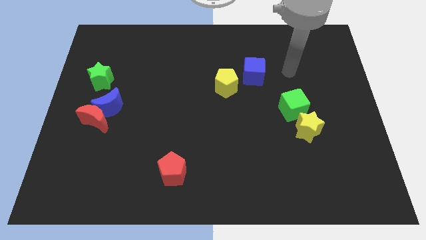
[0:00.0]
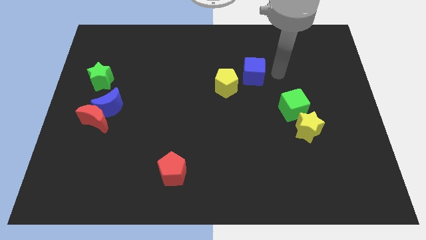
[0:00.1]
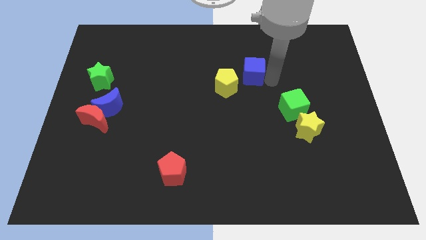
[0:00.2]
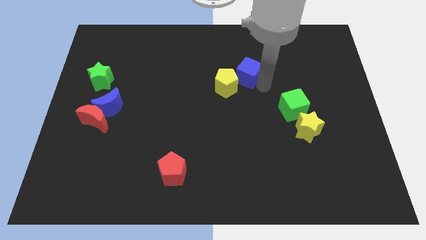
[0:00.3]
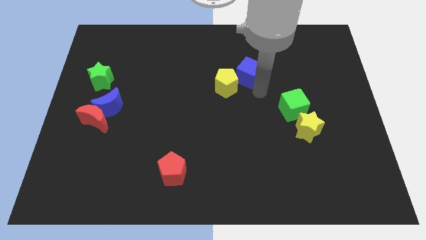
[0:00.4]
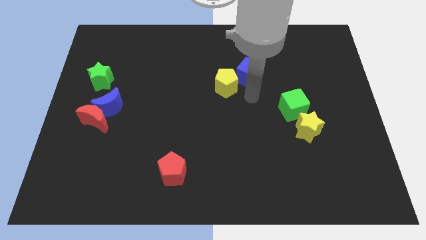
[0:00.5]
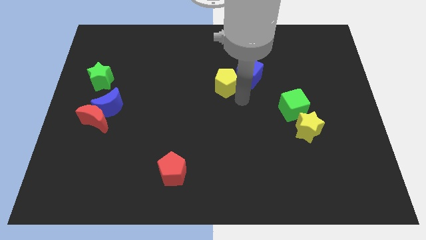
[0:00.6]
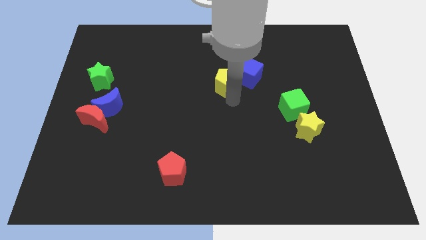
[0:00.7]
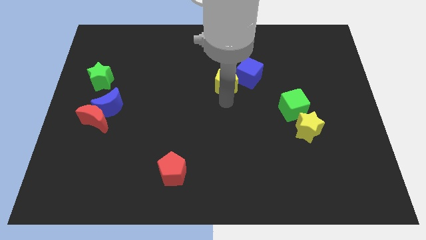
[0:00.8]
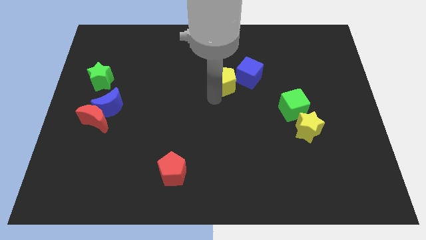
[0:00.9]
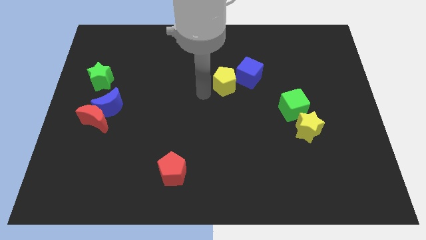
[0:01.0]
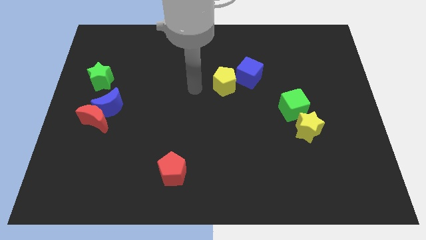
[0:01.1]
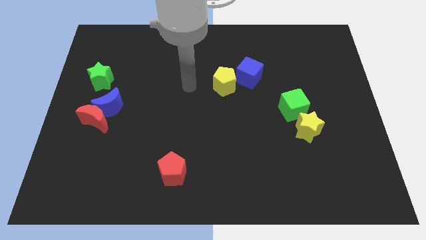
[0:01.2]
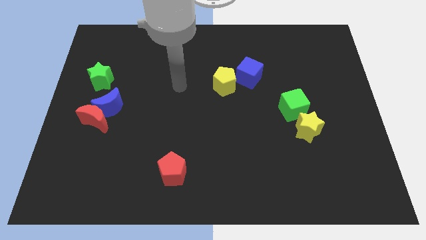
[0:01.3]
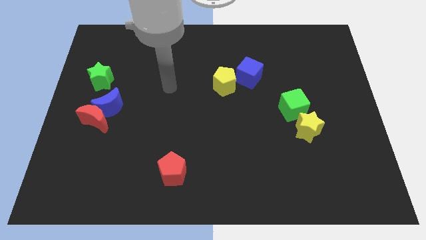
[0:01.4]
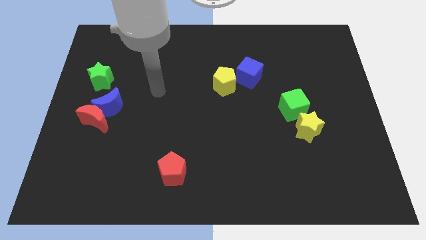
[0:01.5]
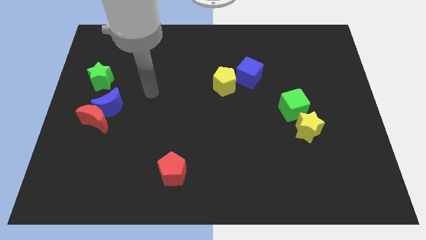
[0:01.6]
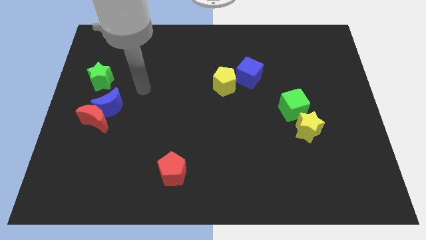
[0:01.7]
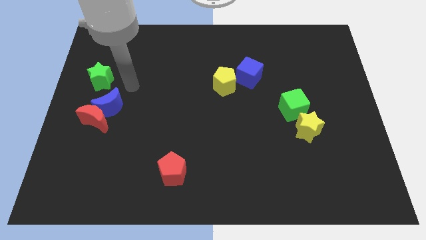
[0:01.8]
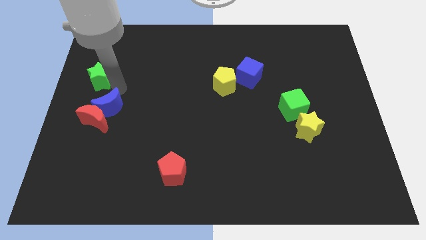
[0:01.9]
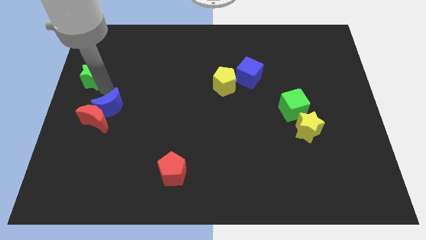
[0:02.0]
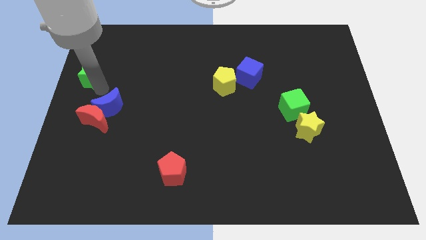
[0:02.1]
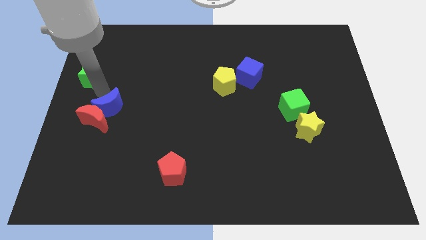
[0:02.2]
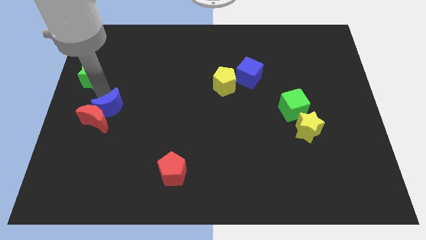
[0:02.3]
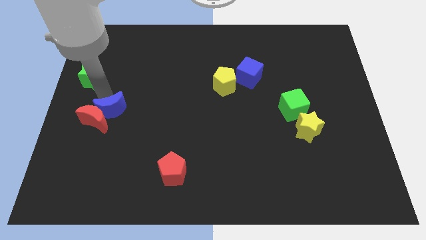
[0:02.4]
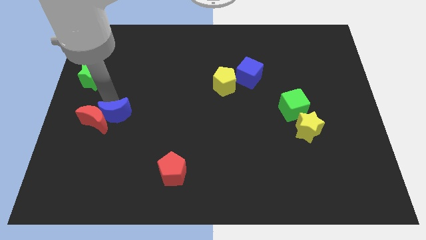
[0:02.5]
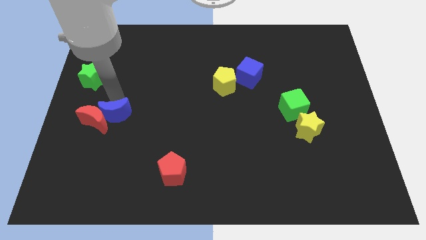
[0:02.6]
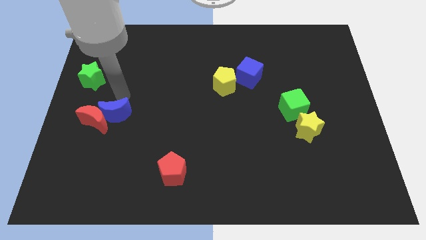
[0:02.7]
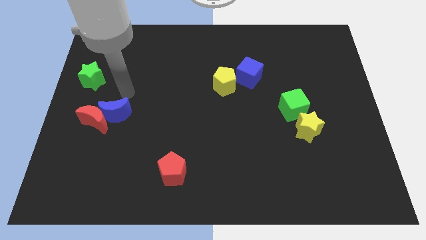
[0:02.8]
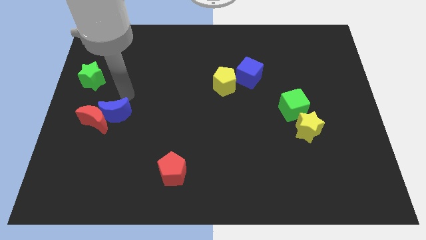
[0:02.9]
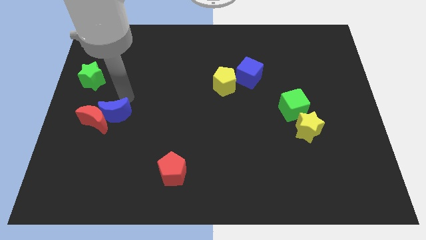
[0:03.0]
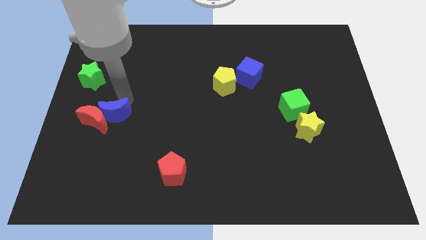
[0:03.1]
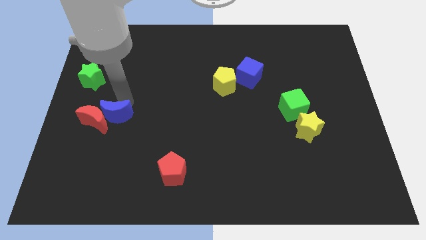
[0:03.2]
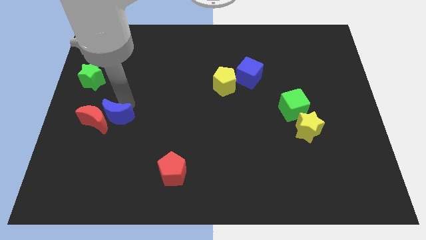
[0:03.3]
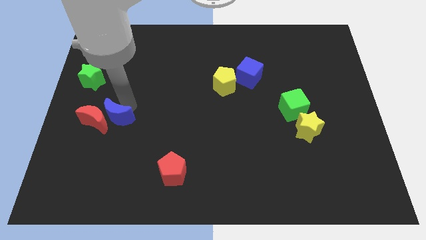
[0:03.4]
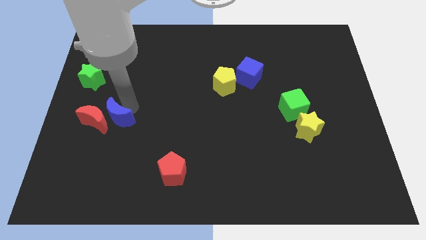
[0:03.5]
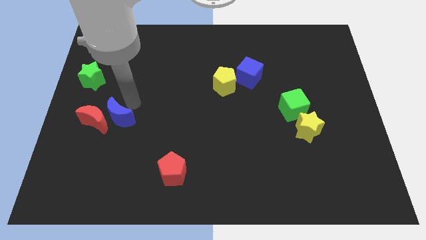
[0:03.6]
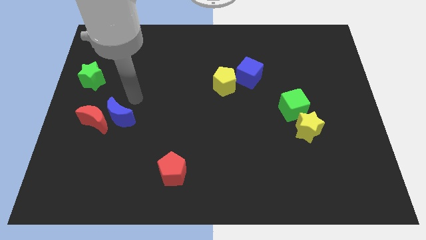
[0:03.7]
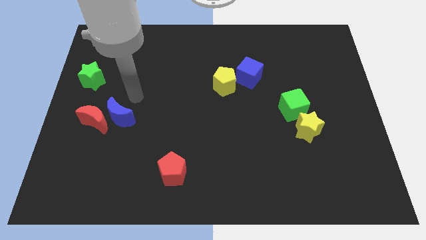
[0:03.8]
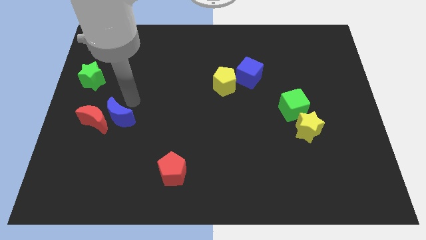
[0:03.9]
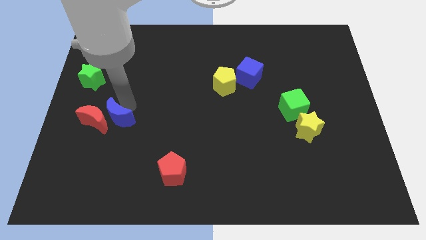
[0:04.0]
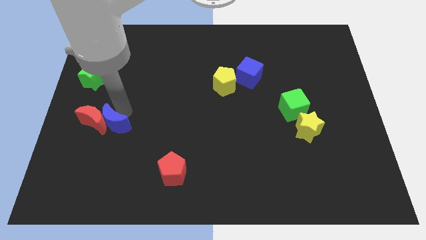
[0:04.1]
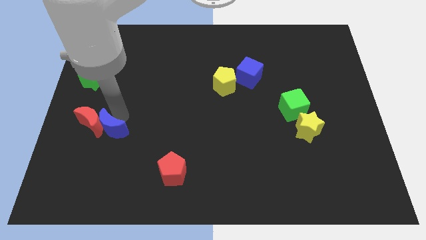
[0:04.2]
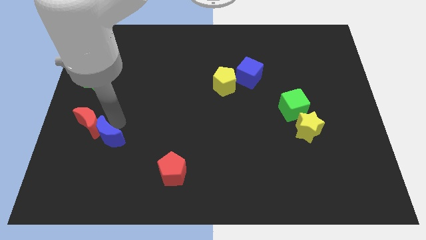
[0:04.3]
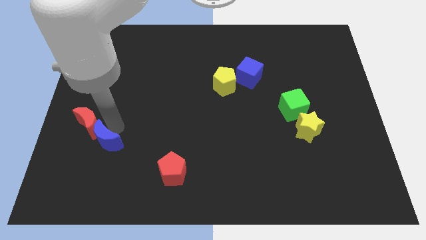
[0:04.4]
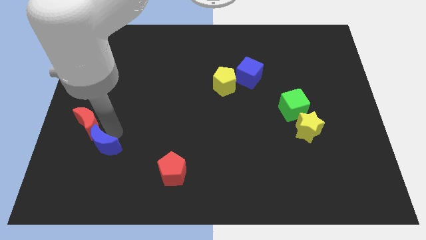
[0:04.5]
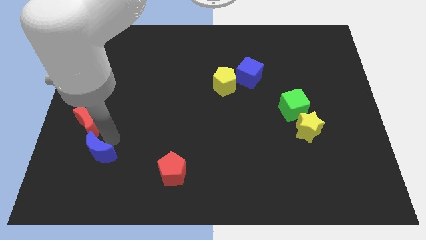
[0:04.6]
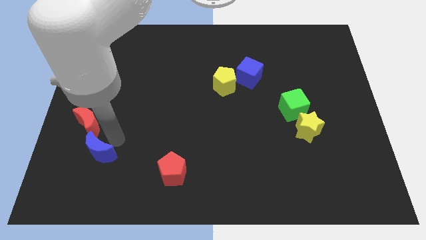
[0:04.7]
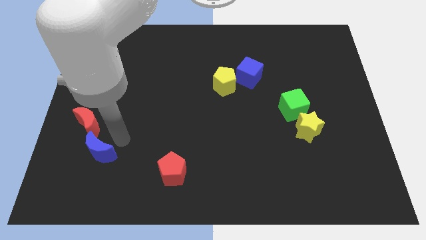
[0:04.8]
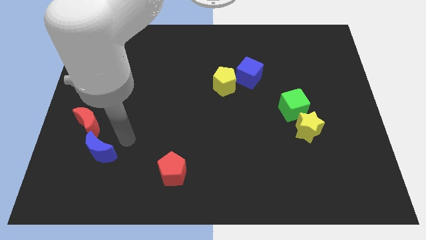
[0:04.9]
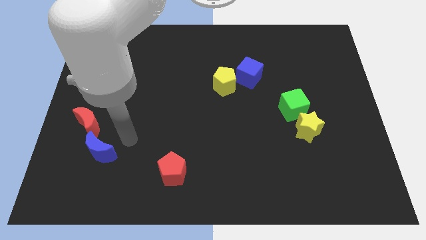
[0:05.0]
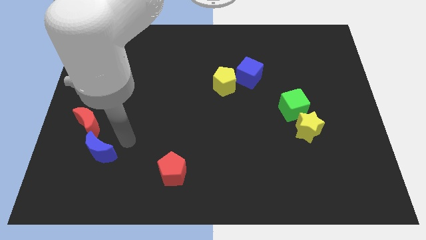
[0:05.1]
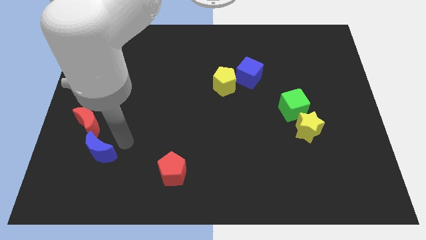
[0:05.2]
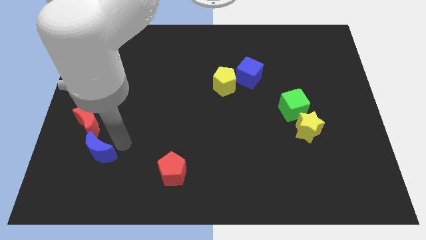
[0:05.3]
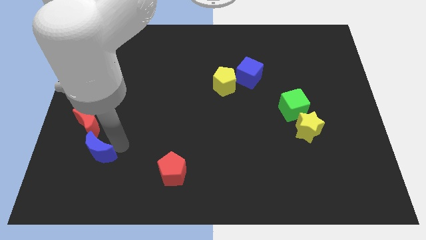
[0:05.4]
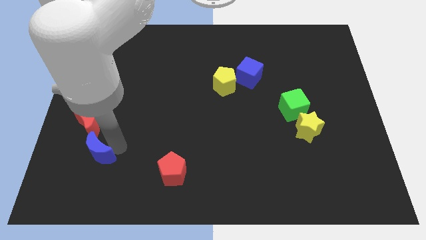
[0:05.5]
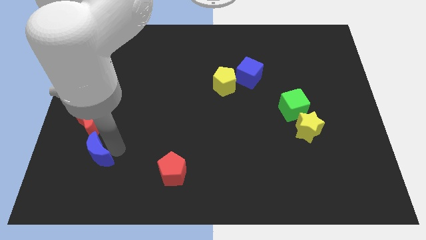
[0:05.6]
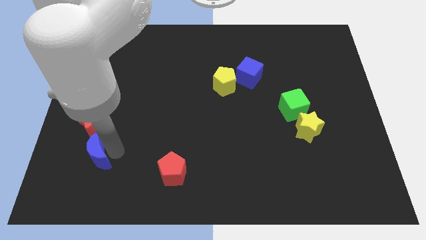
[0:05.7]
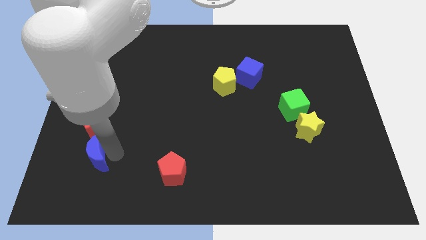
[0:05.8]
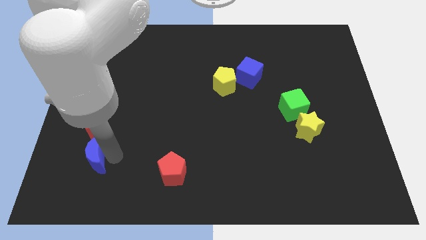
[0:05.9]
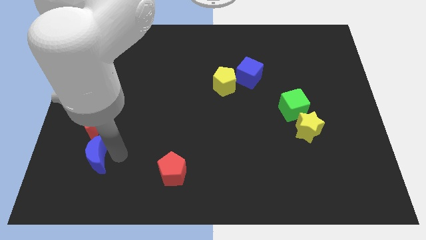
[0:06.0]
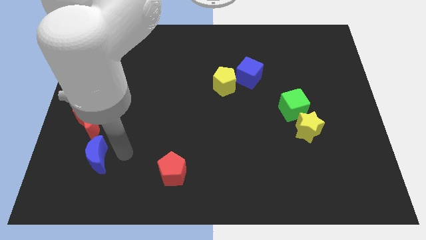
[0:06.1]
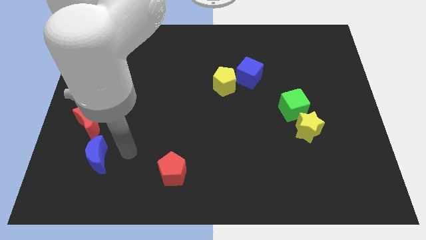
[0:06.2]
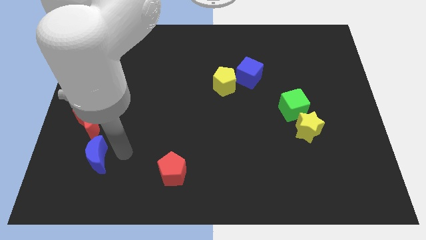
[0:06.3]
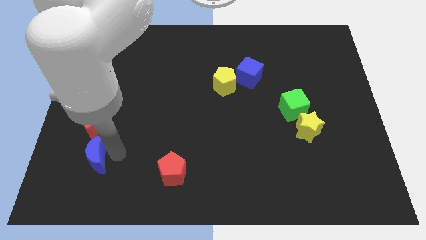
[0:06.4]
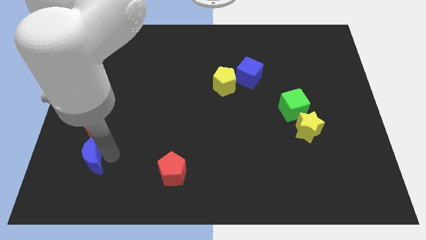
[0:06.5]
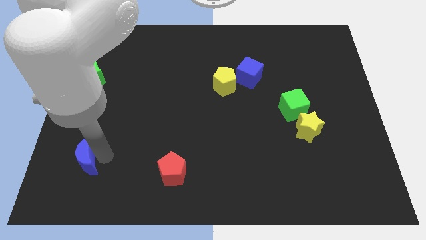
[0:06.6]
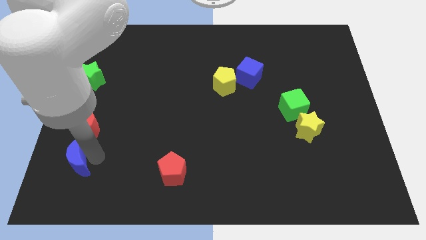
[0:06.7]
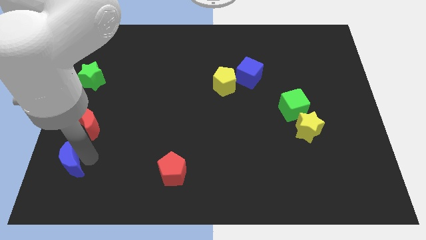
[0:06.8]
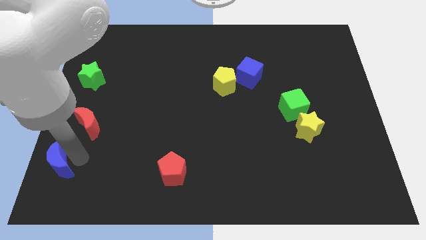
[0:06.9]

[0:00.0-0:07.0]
slide the blue moon to the bottom left of the board

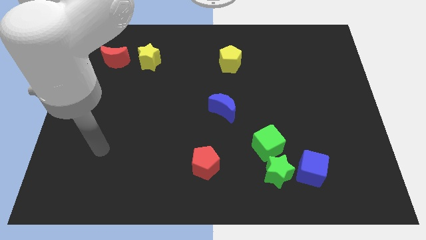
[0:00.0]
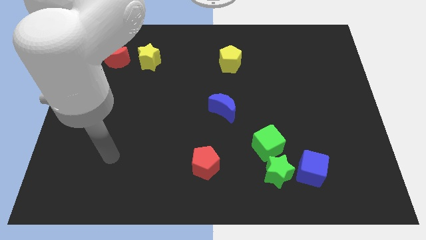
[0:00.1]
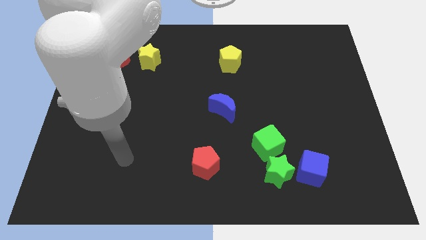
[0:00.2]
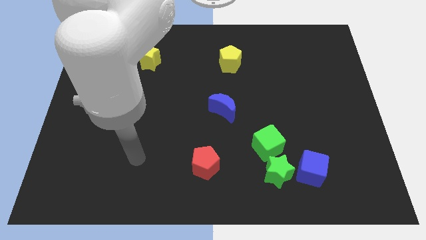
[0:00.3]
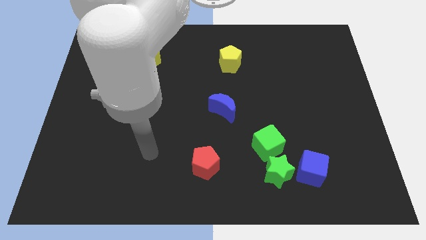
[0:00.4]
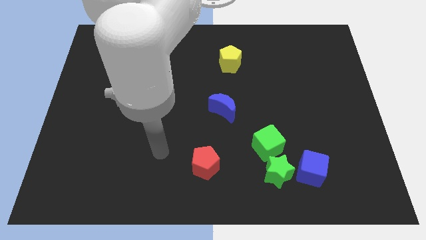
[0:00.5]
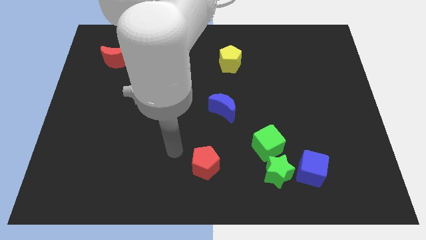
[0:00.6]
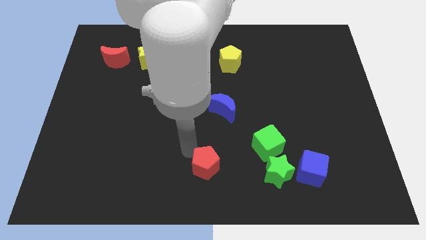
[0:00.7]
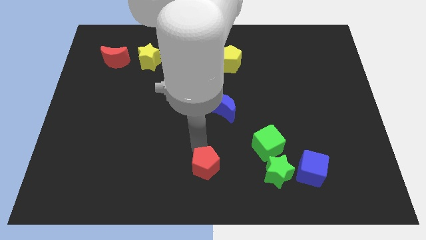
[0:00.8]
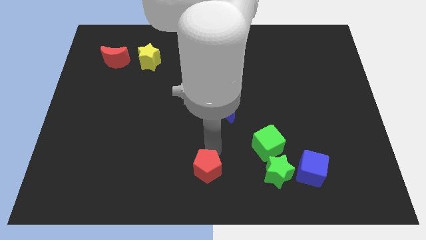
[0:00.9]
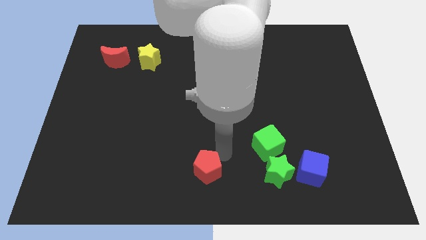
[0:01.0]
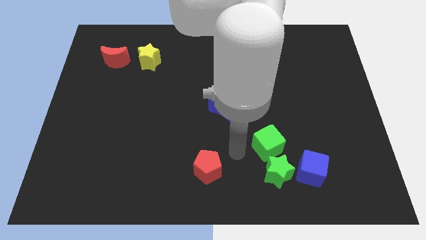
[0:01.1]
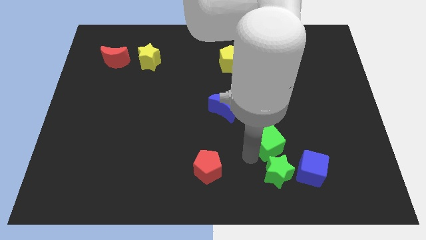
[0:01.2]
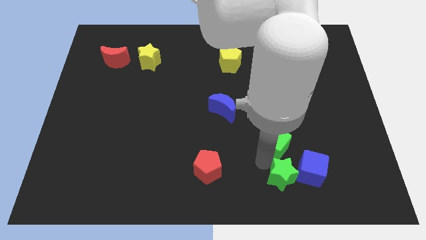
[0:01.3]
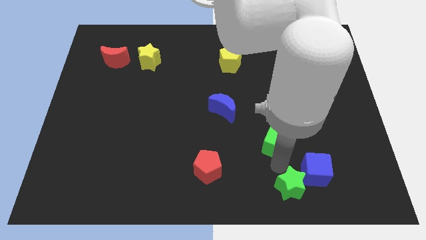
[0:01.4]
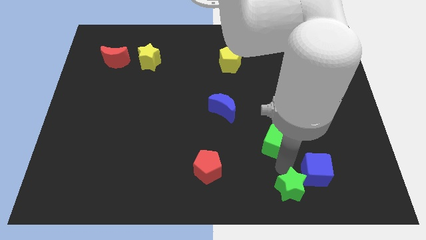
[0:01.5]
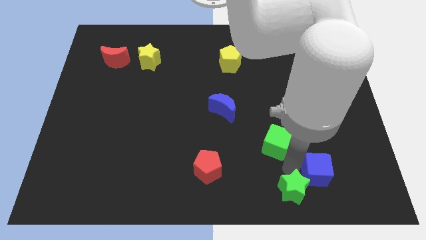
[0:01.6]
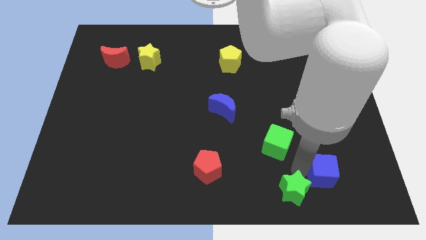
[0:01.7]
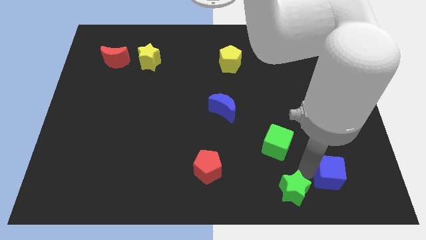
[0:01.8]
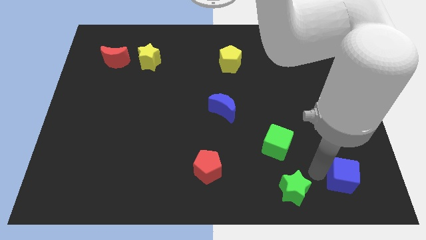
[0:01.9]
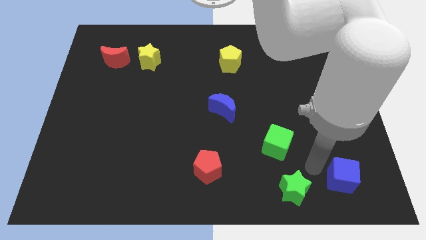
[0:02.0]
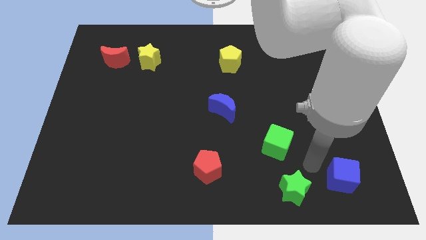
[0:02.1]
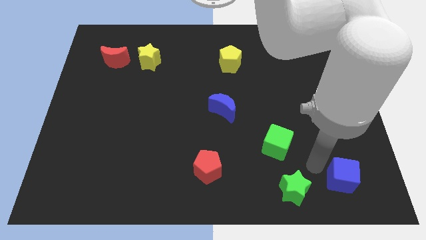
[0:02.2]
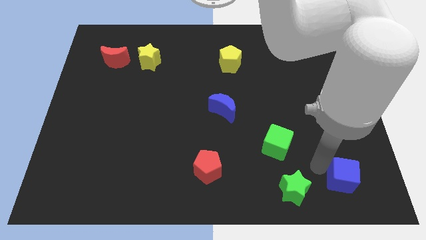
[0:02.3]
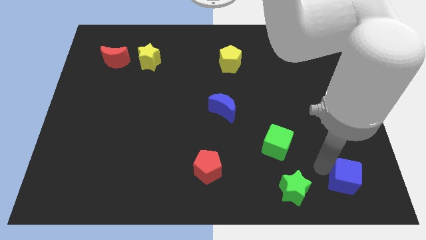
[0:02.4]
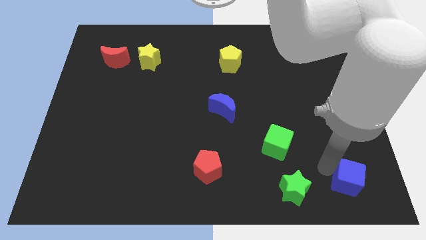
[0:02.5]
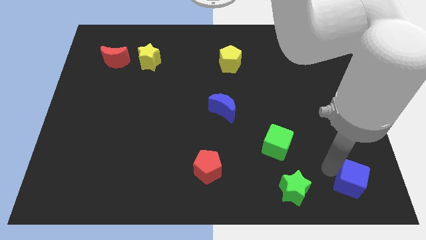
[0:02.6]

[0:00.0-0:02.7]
slide the blue cube to the bottom right
